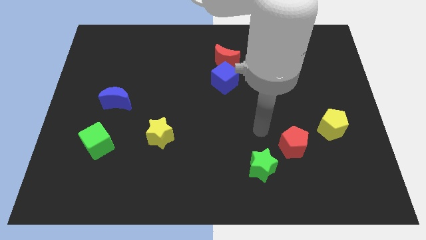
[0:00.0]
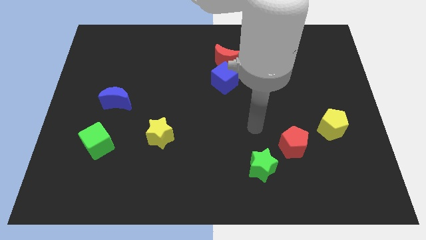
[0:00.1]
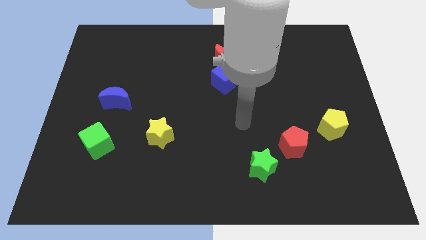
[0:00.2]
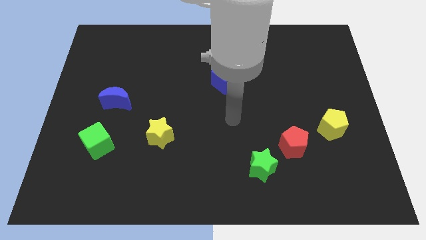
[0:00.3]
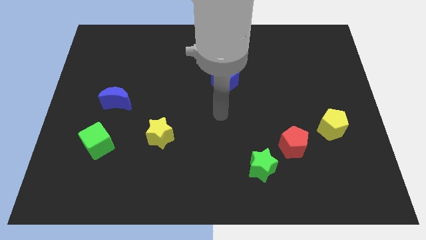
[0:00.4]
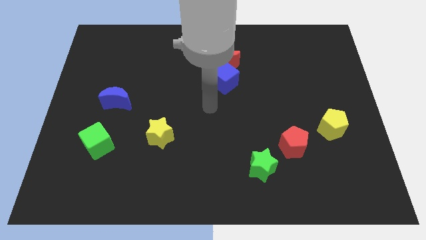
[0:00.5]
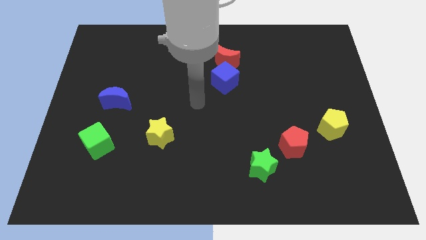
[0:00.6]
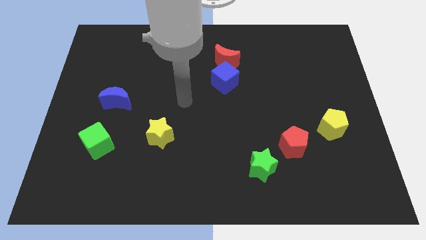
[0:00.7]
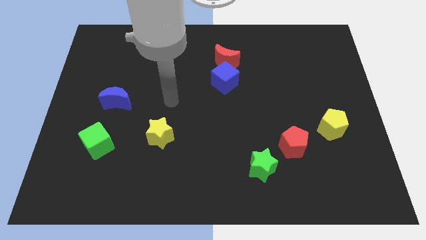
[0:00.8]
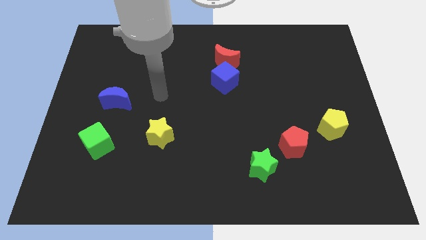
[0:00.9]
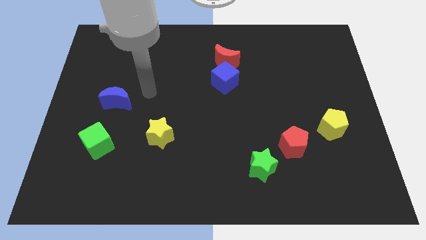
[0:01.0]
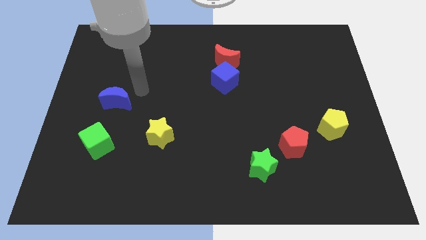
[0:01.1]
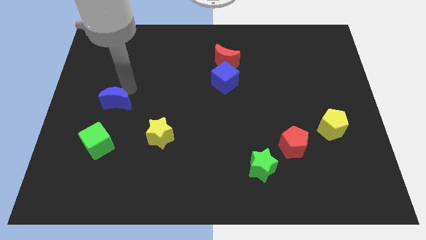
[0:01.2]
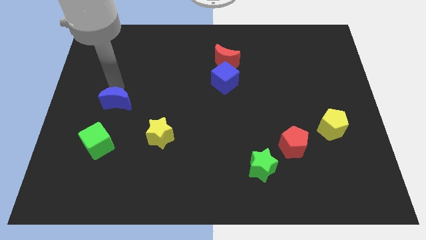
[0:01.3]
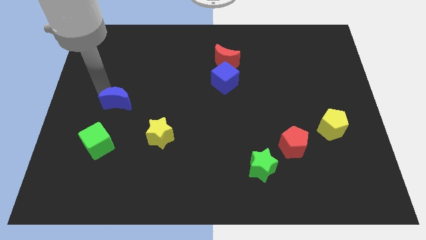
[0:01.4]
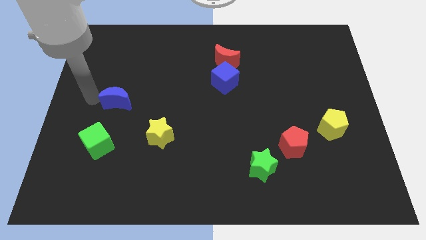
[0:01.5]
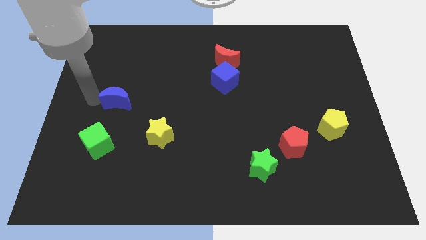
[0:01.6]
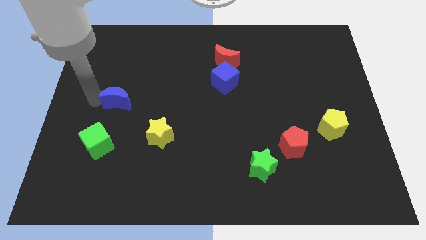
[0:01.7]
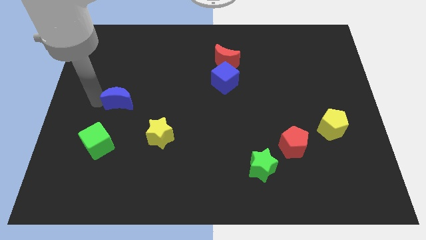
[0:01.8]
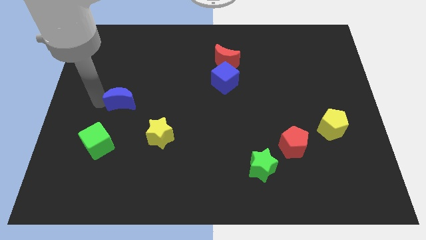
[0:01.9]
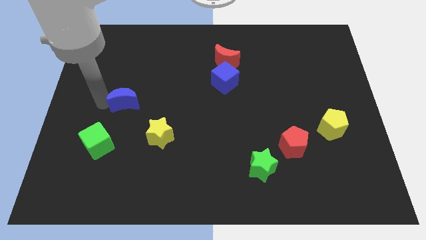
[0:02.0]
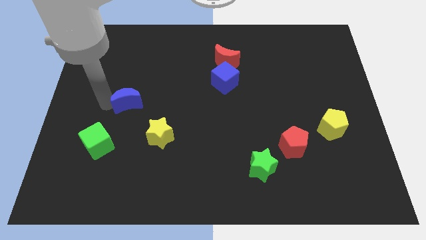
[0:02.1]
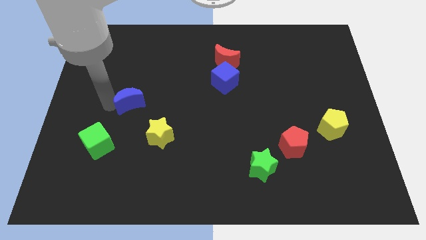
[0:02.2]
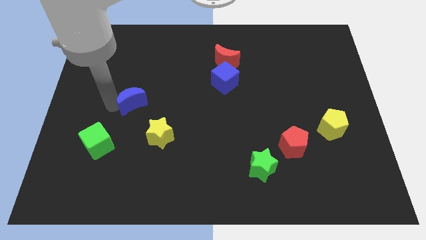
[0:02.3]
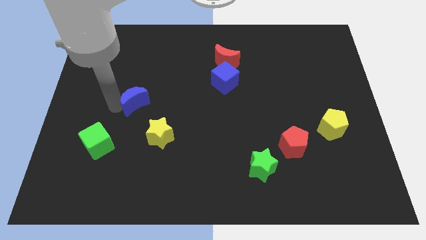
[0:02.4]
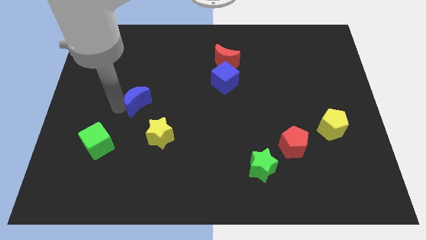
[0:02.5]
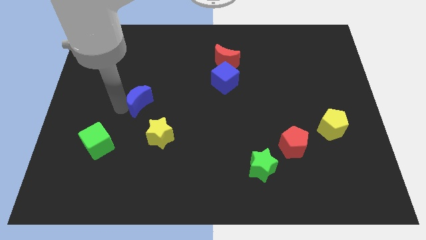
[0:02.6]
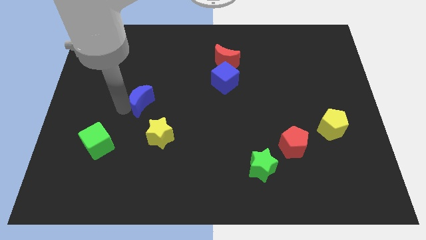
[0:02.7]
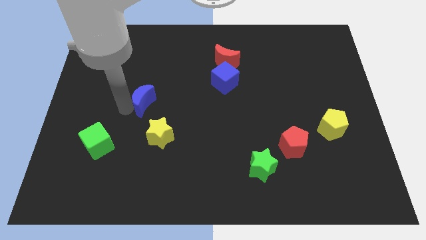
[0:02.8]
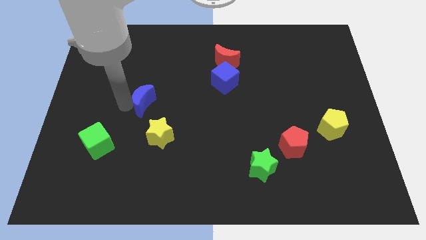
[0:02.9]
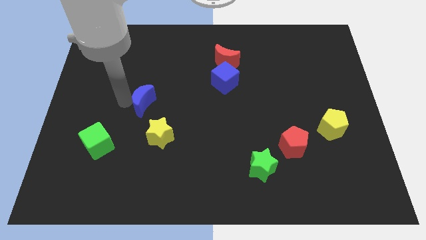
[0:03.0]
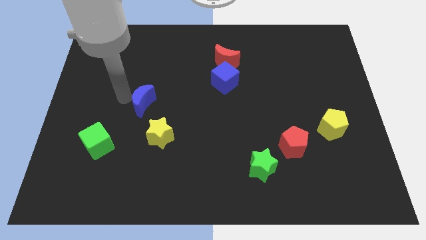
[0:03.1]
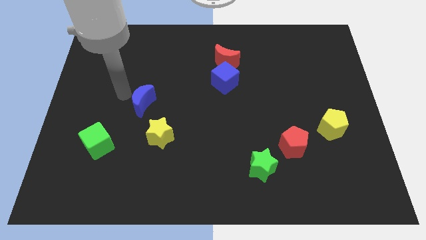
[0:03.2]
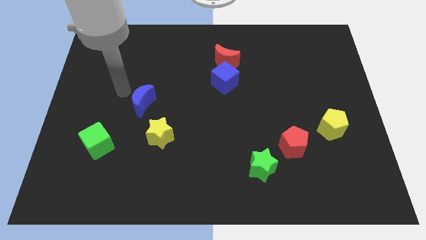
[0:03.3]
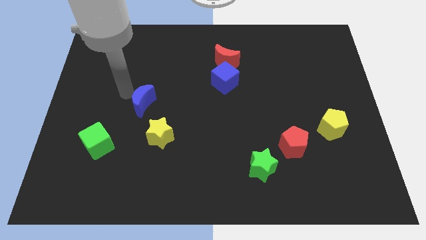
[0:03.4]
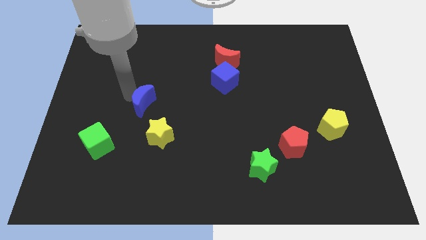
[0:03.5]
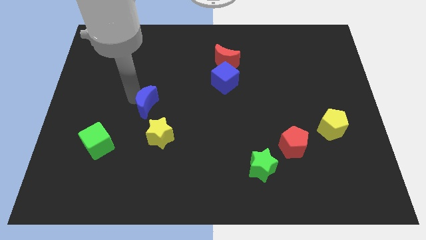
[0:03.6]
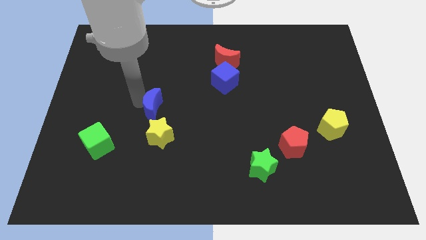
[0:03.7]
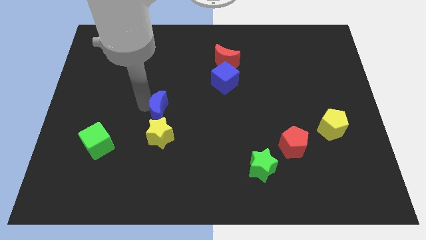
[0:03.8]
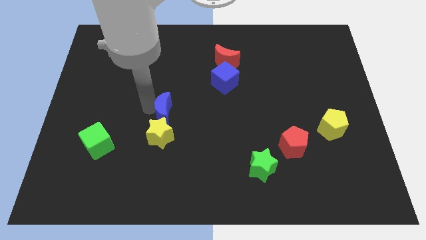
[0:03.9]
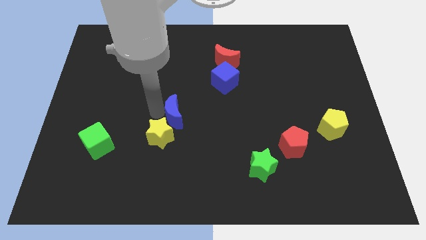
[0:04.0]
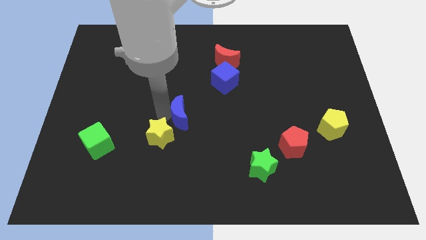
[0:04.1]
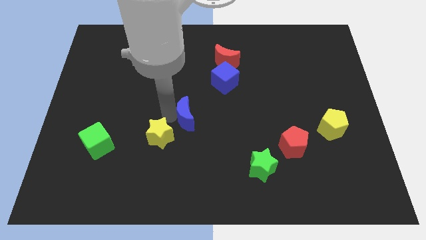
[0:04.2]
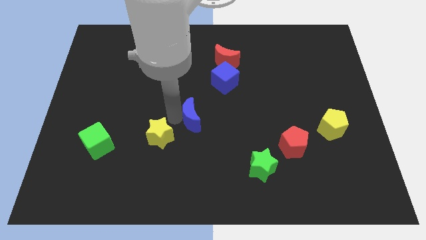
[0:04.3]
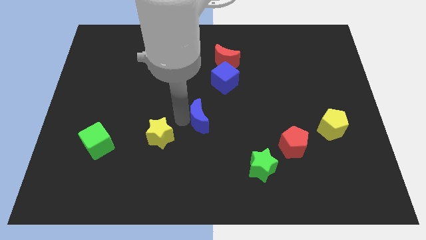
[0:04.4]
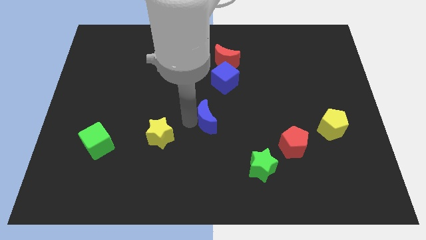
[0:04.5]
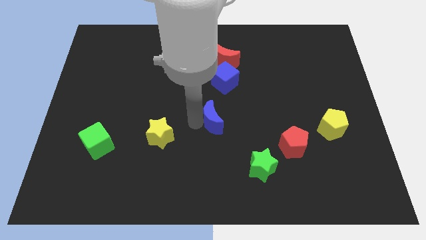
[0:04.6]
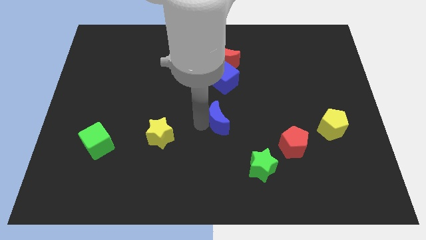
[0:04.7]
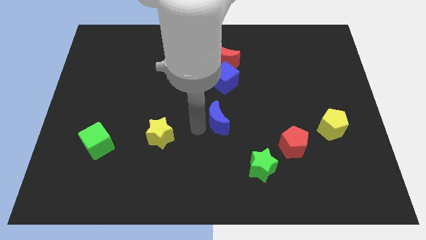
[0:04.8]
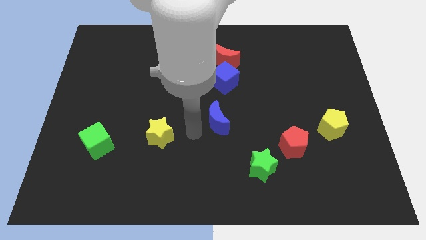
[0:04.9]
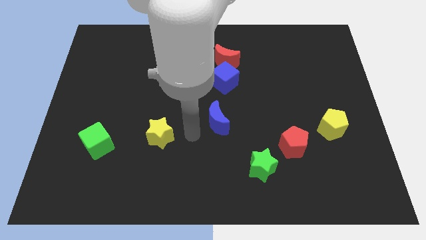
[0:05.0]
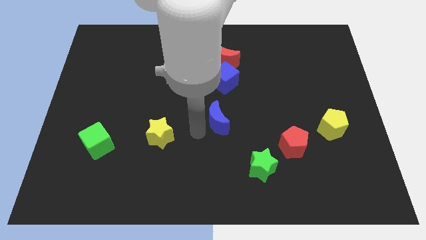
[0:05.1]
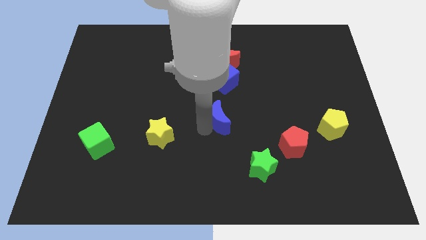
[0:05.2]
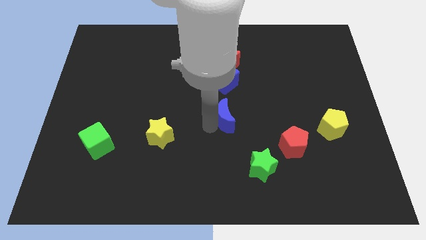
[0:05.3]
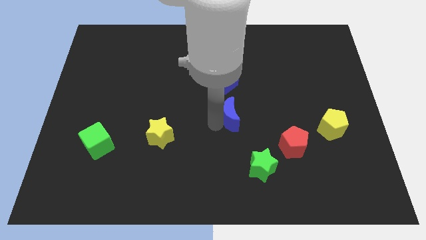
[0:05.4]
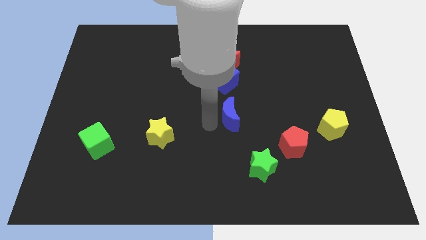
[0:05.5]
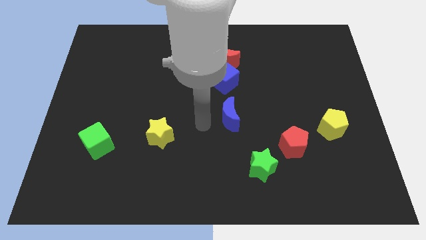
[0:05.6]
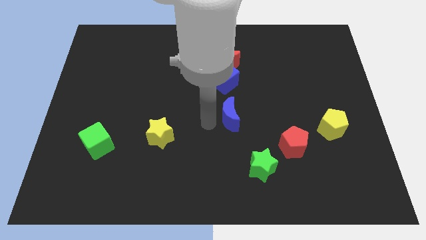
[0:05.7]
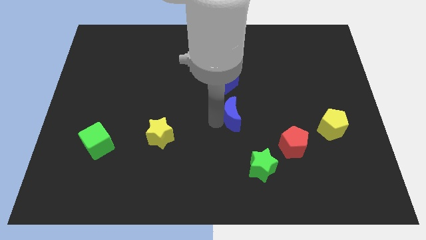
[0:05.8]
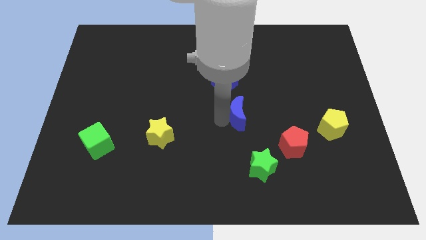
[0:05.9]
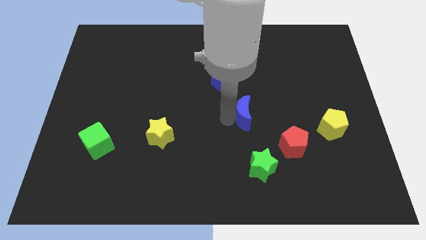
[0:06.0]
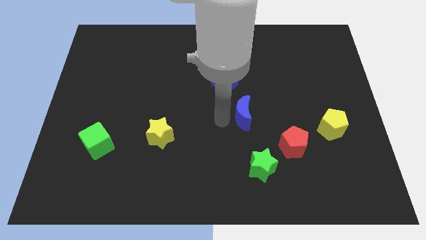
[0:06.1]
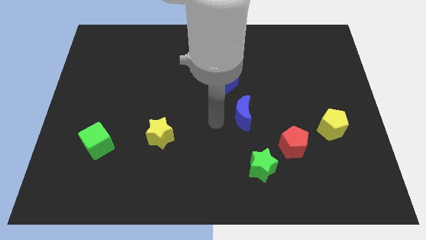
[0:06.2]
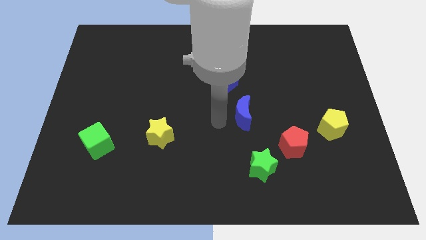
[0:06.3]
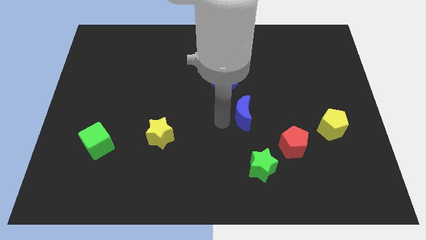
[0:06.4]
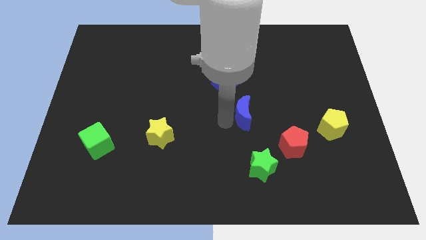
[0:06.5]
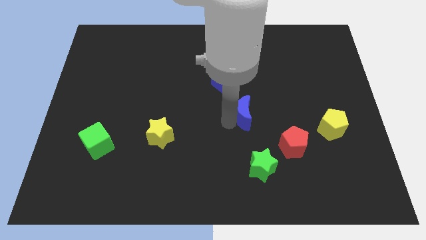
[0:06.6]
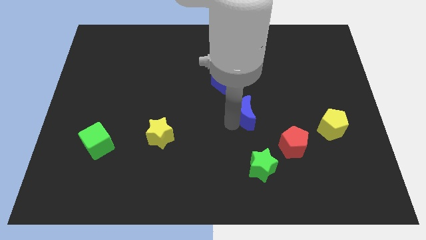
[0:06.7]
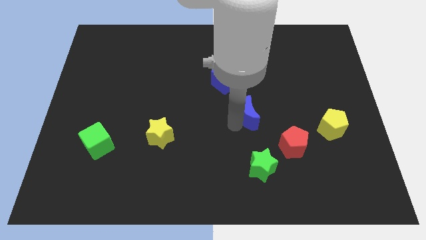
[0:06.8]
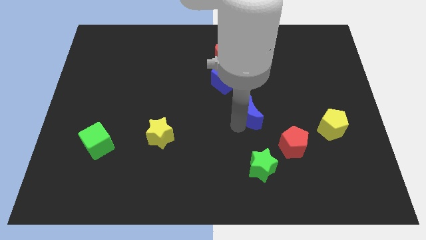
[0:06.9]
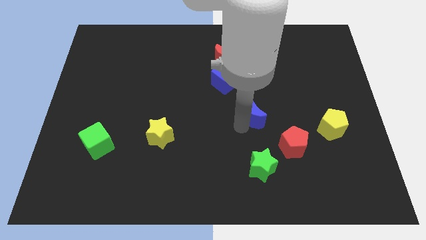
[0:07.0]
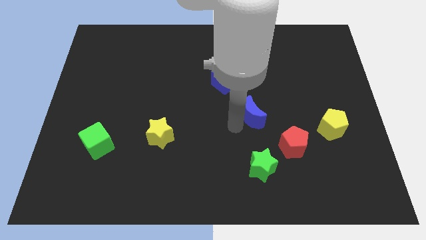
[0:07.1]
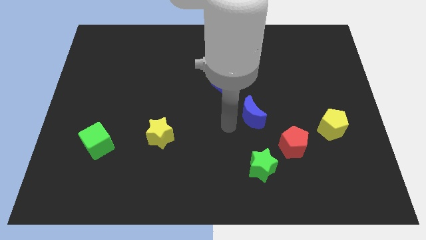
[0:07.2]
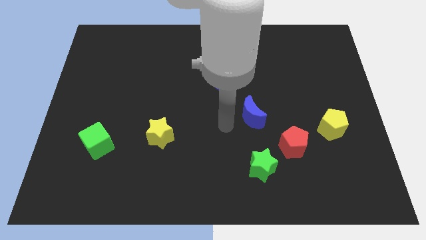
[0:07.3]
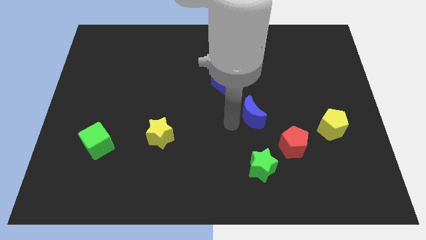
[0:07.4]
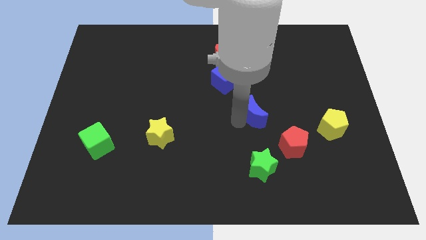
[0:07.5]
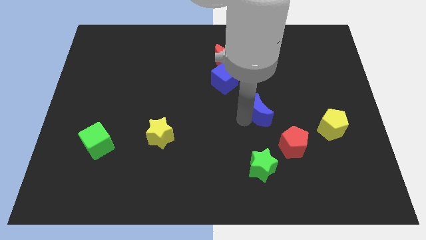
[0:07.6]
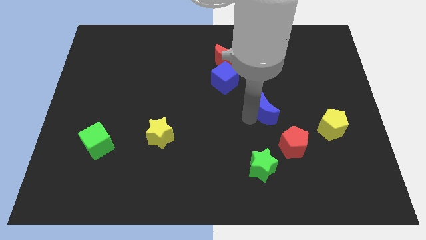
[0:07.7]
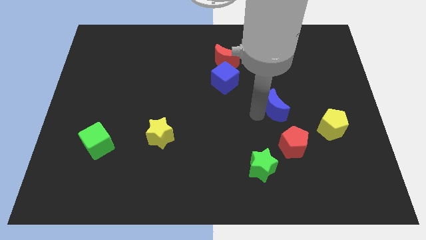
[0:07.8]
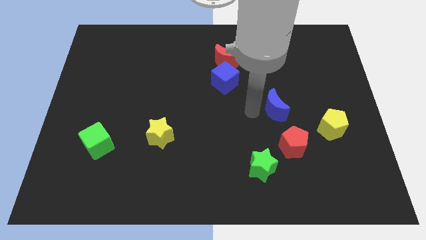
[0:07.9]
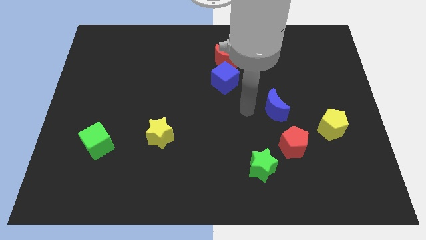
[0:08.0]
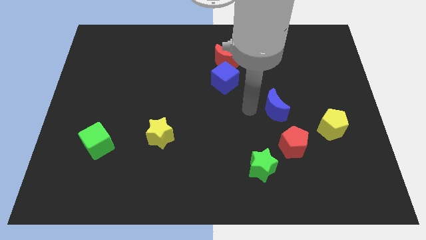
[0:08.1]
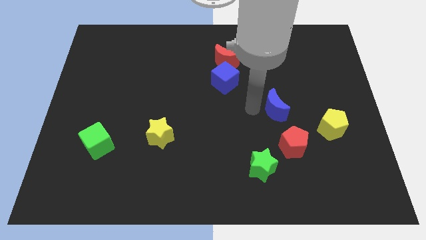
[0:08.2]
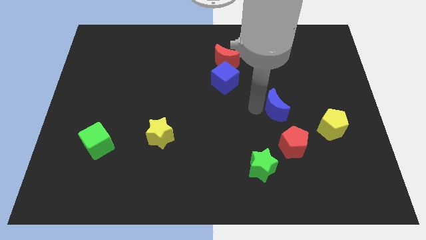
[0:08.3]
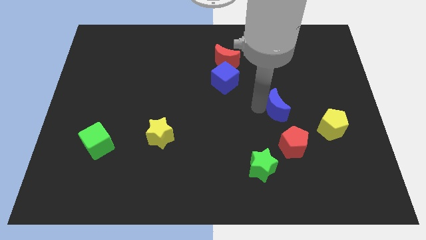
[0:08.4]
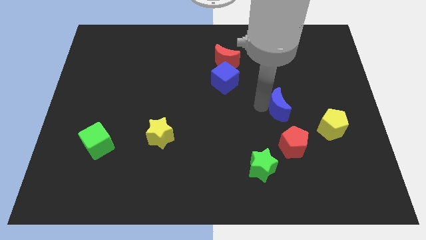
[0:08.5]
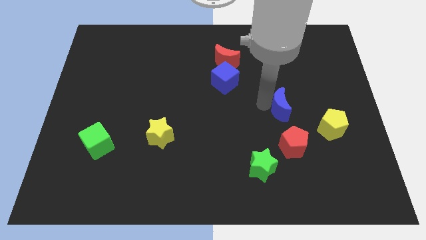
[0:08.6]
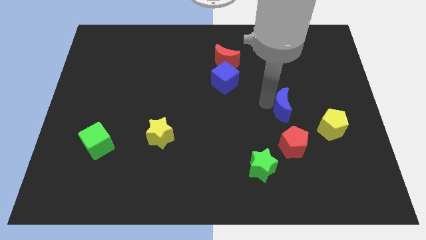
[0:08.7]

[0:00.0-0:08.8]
move the blue moon diagonally up and to the left of the yellow pentagon
